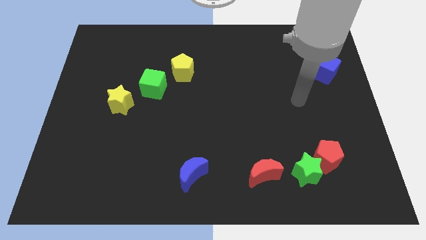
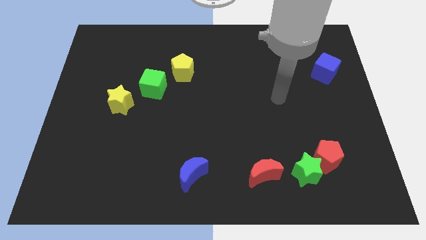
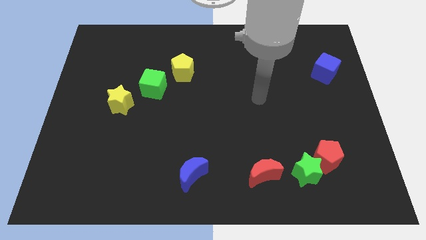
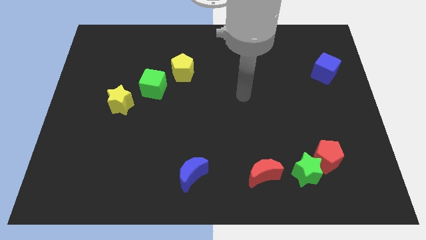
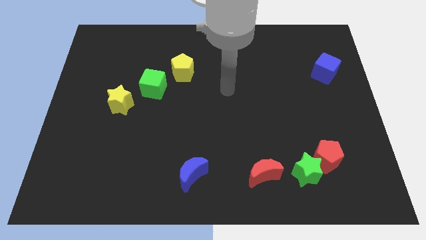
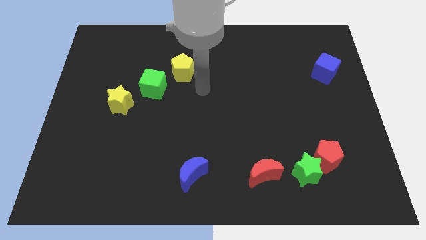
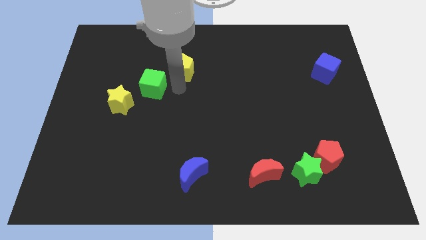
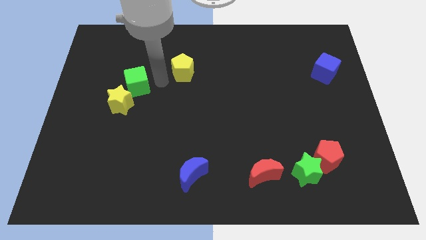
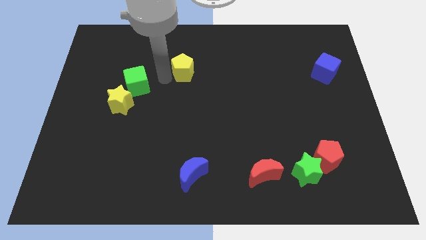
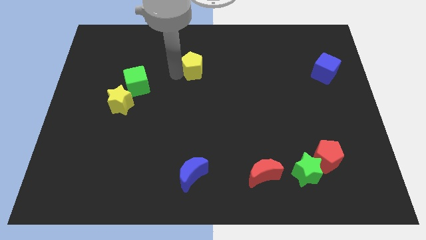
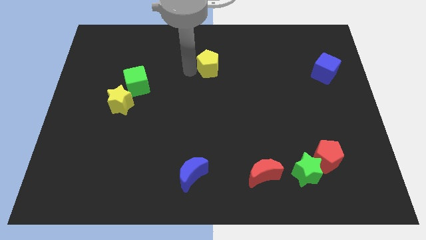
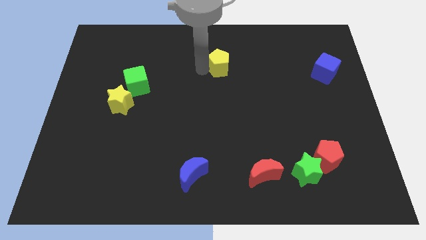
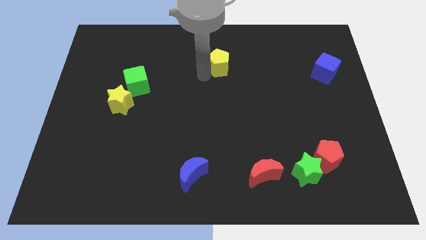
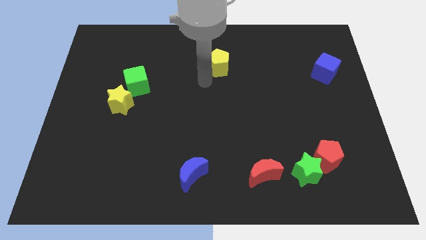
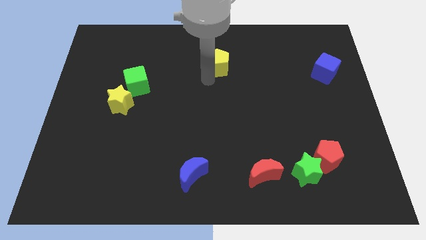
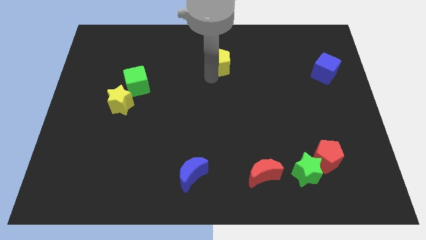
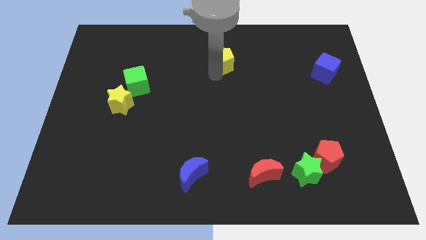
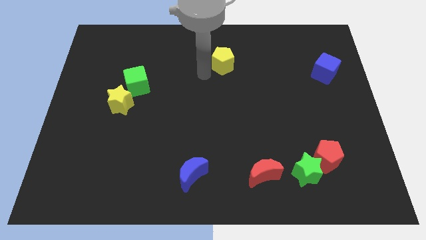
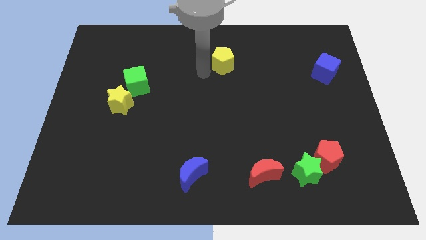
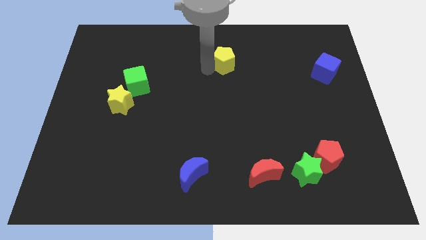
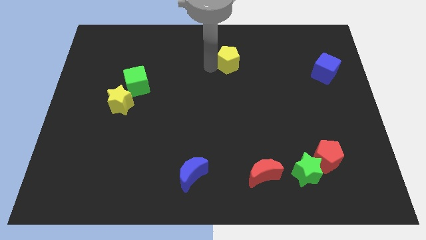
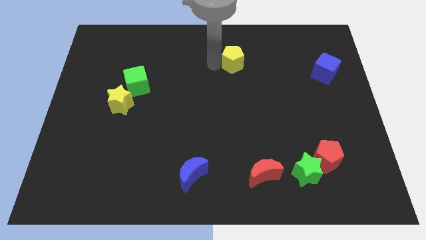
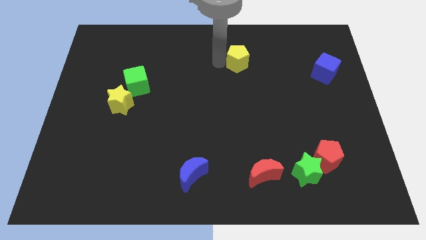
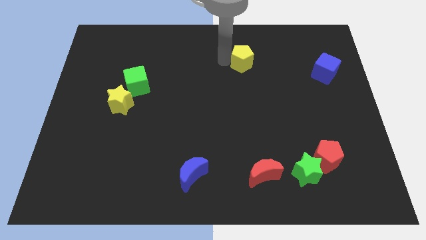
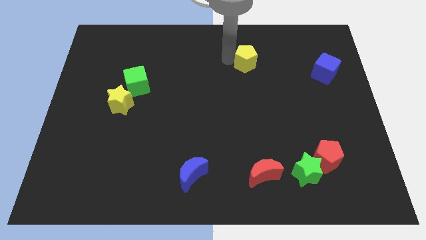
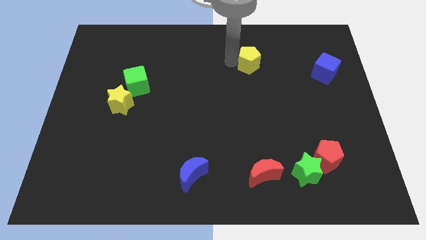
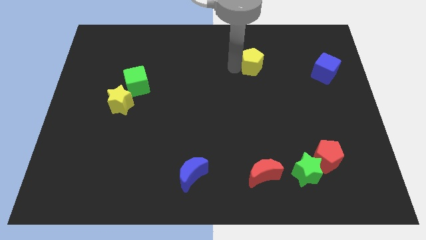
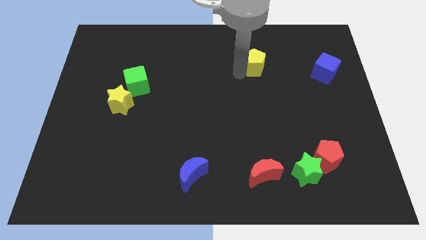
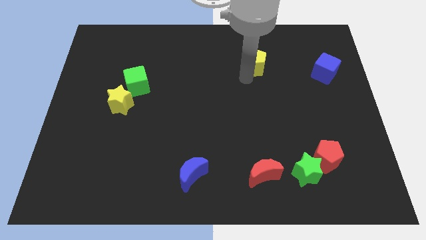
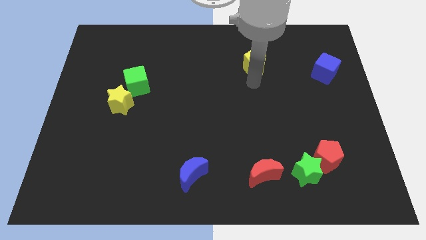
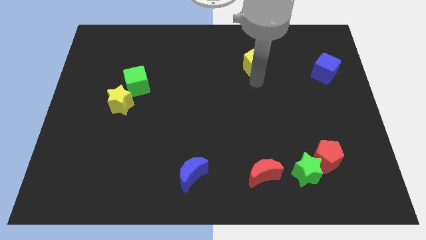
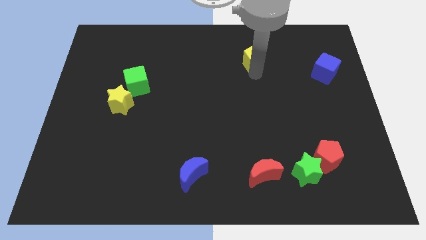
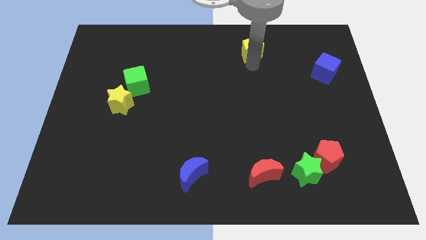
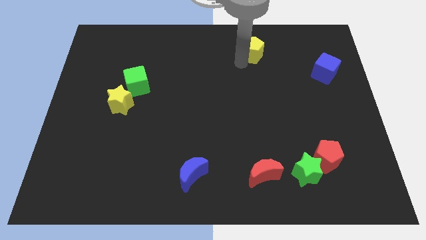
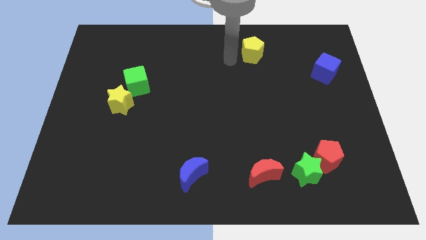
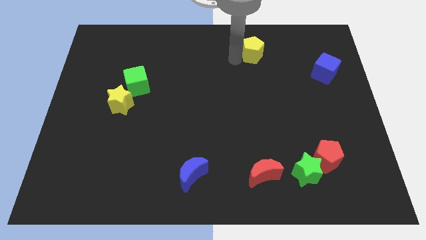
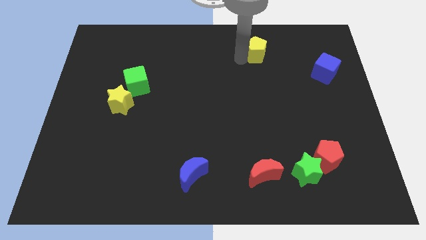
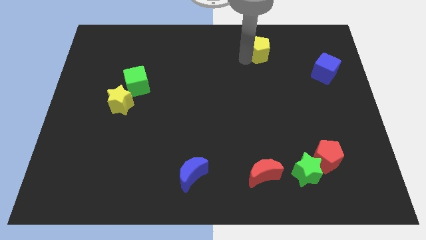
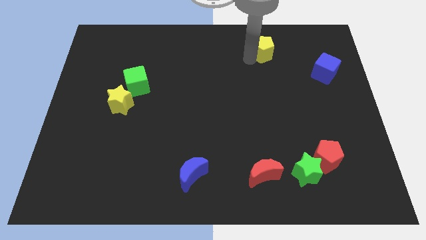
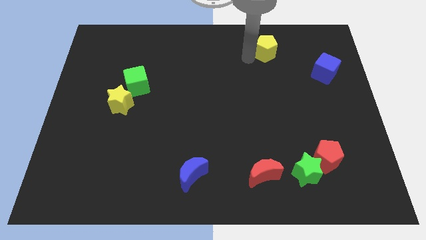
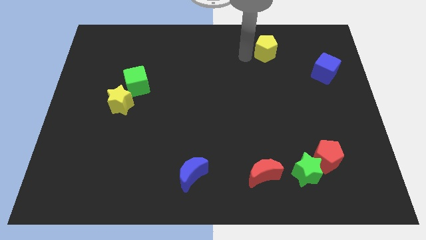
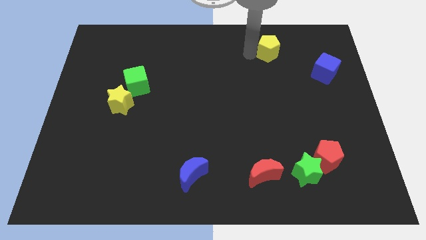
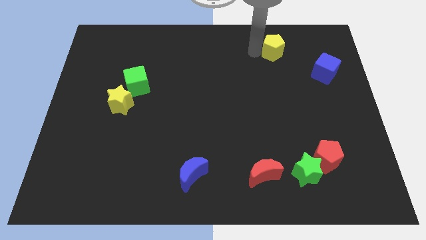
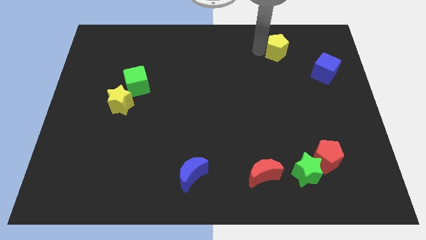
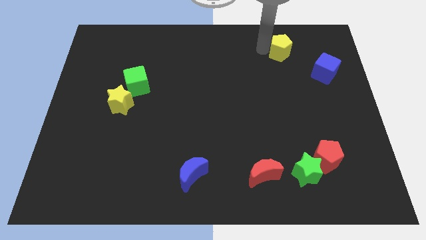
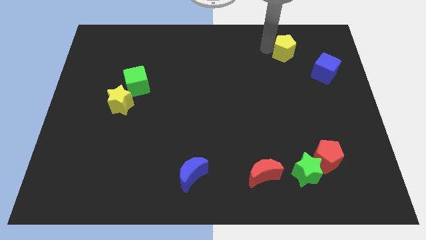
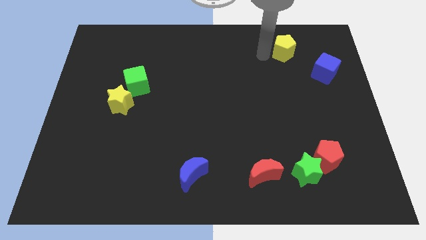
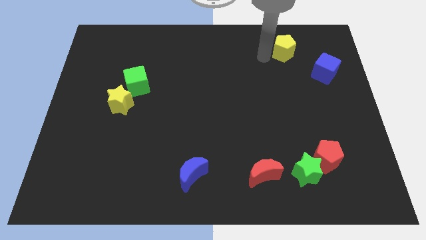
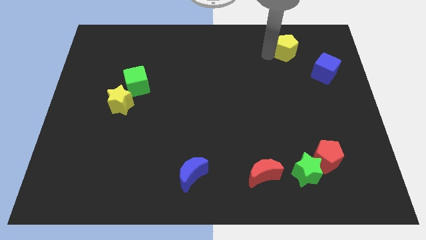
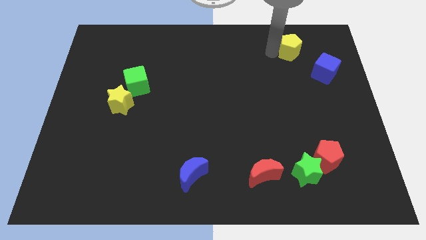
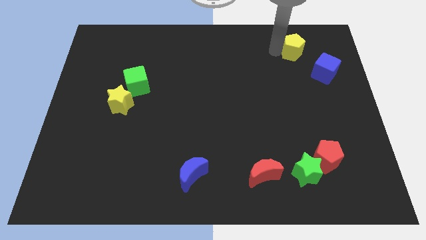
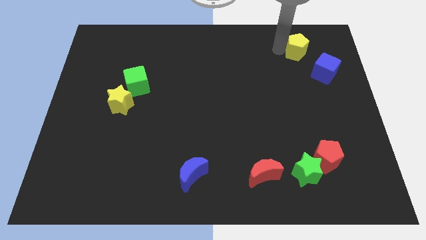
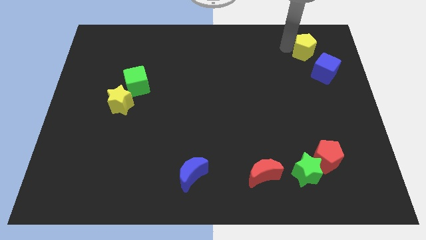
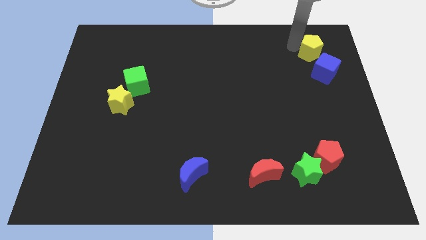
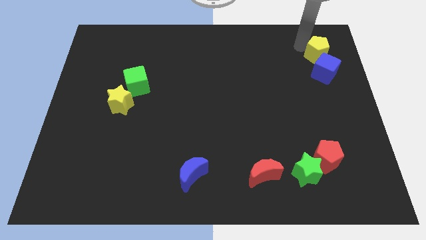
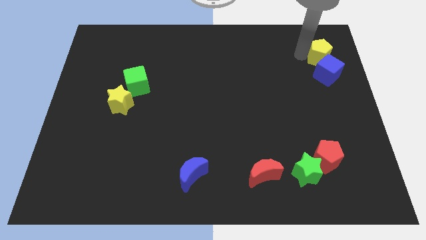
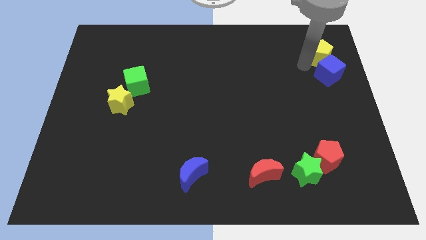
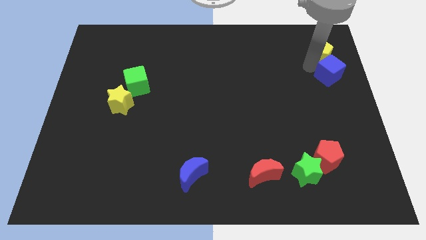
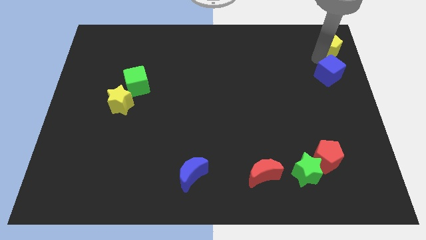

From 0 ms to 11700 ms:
slide the yellow pentagon to the upper right corner

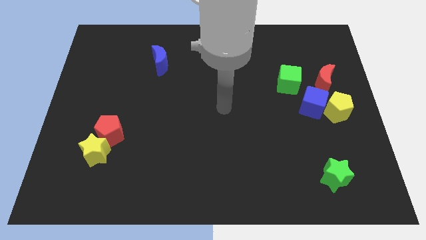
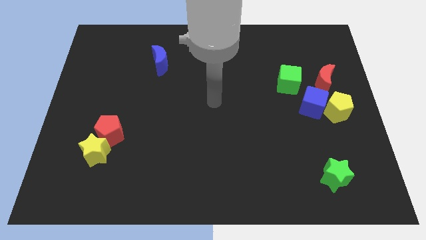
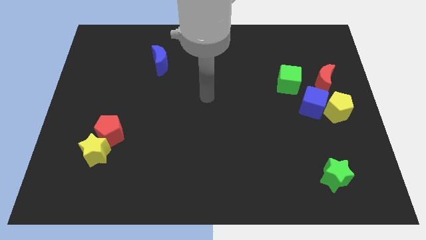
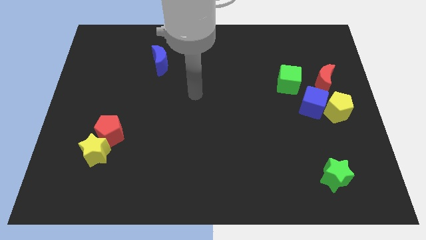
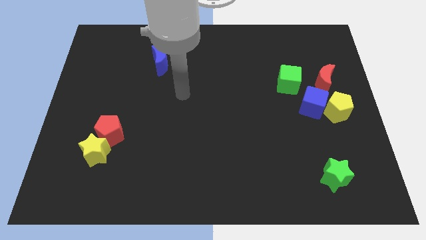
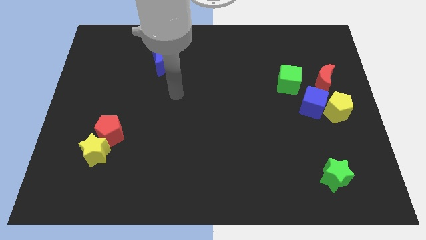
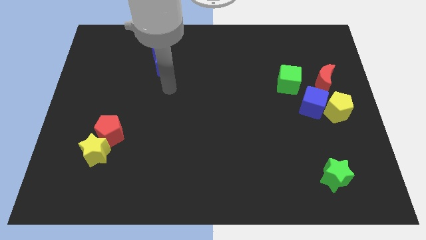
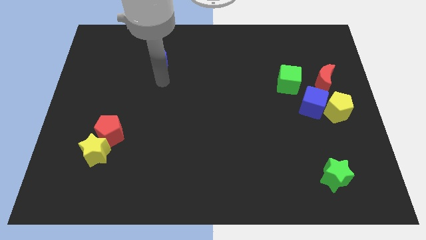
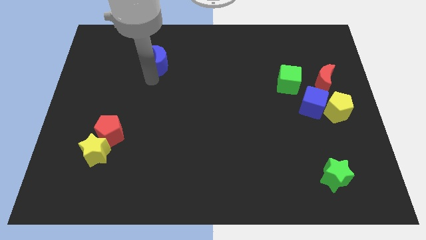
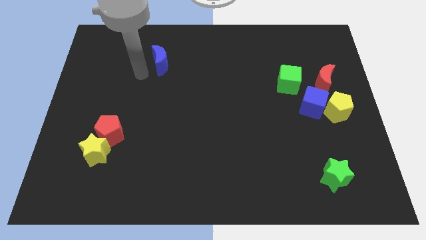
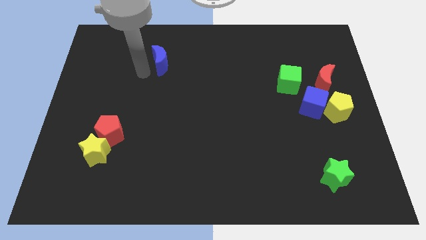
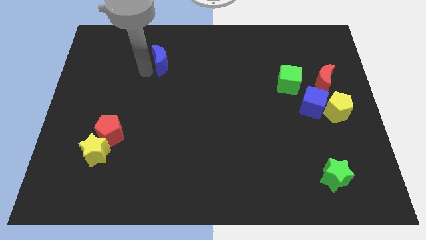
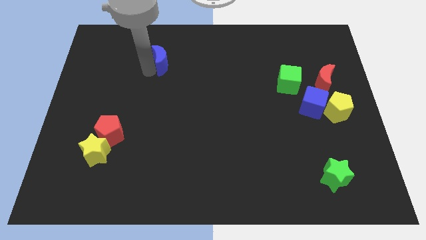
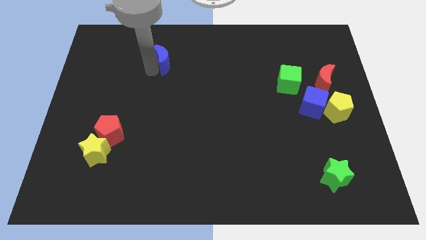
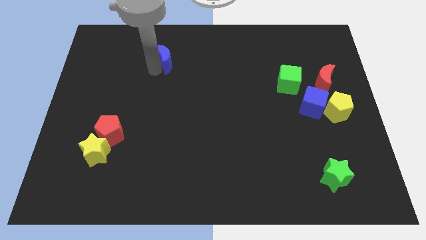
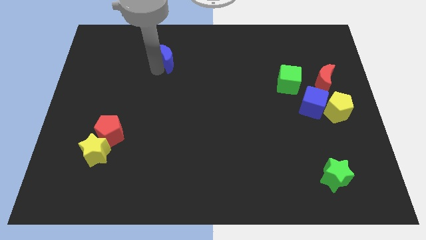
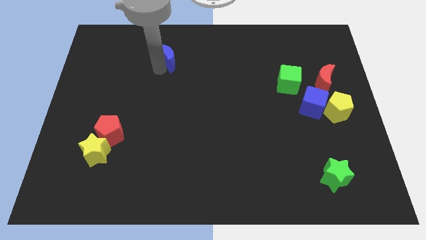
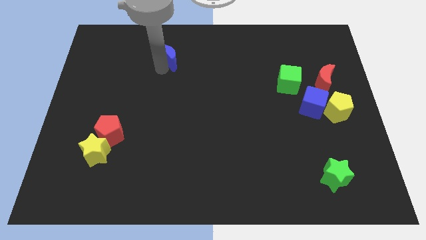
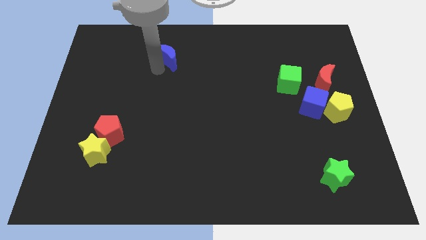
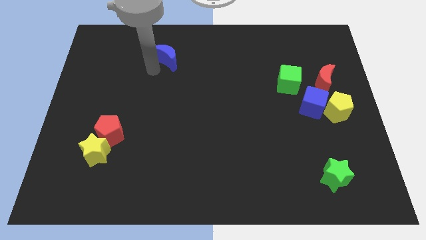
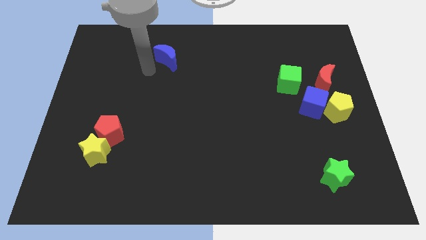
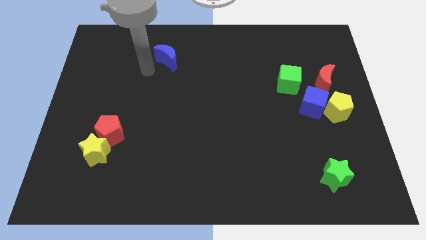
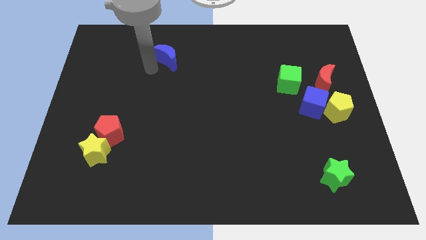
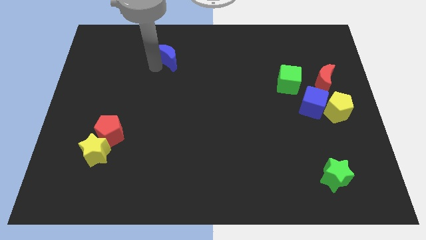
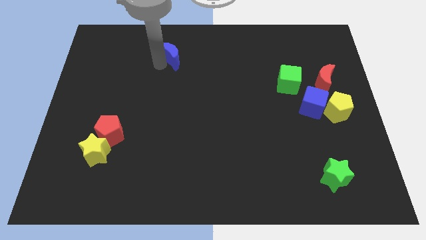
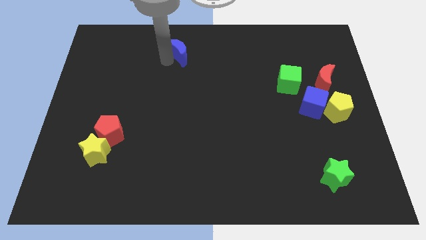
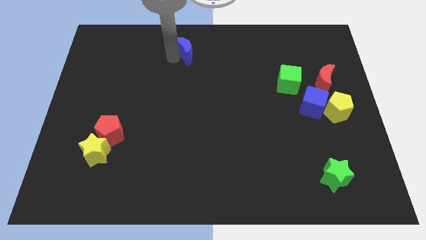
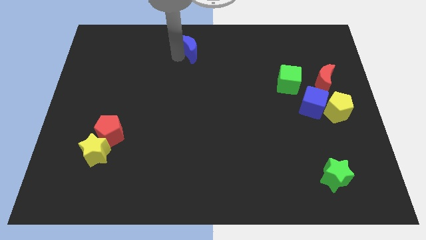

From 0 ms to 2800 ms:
slide the blue moon to the top side
